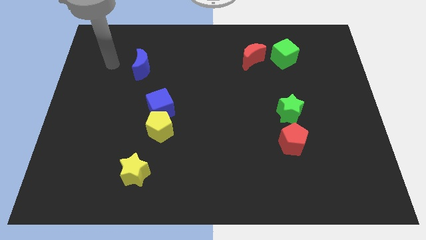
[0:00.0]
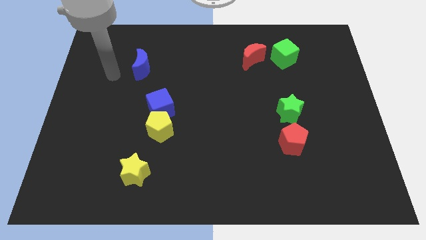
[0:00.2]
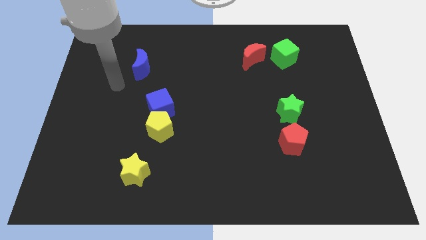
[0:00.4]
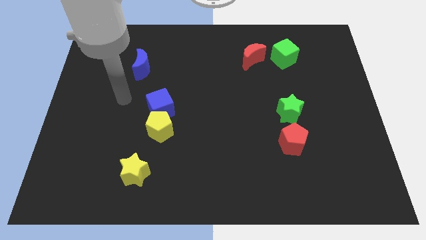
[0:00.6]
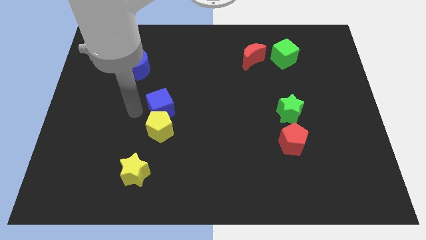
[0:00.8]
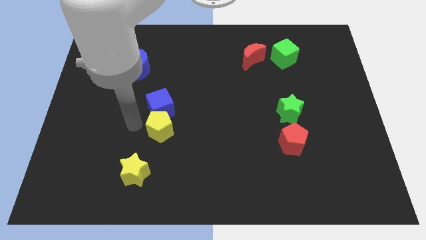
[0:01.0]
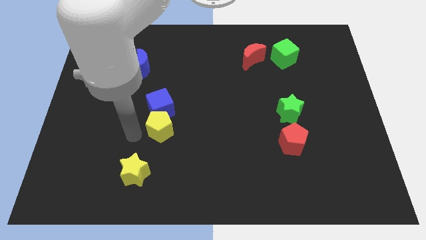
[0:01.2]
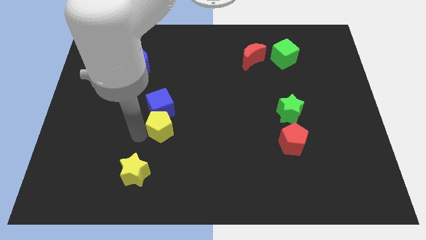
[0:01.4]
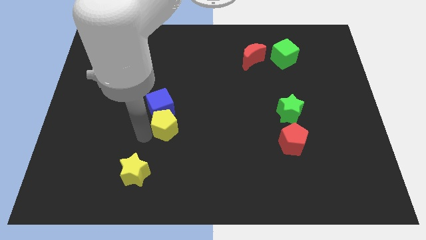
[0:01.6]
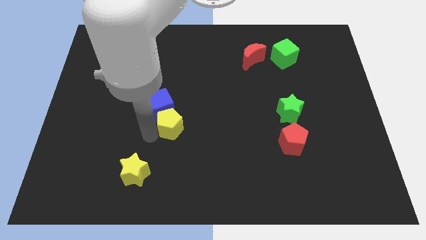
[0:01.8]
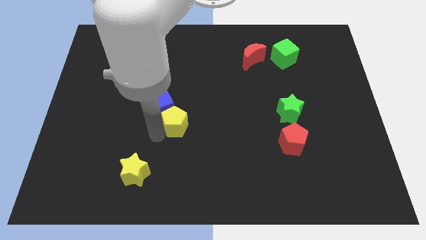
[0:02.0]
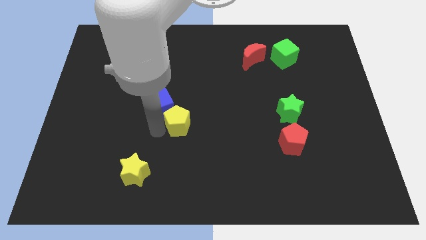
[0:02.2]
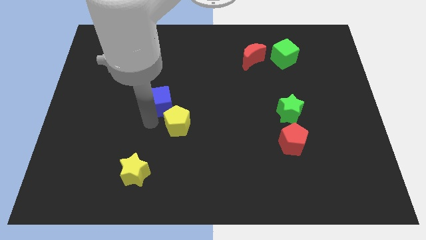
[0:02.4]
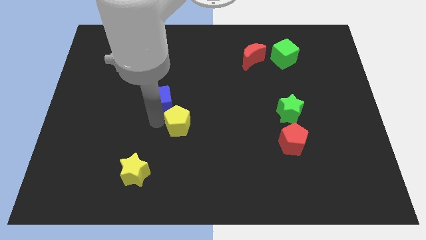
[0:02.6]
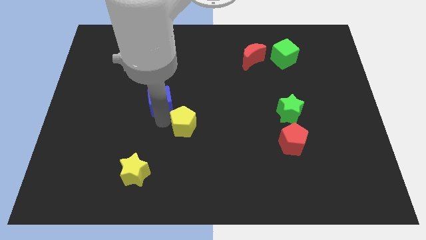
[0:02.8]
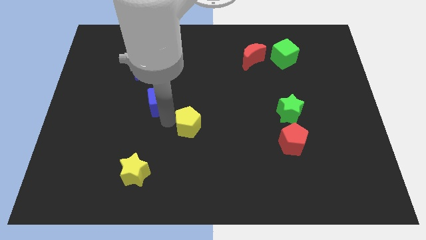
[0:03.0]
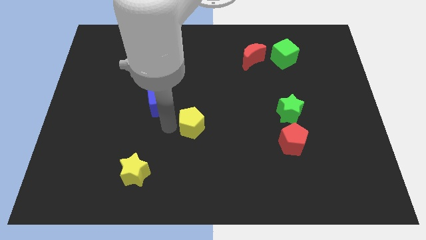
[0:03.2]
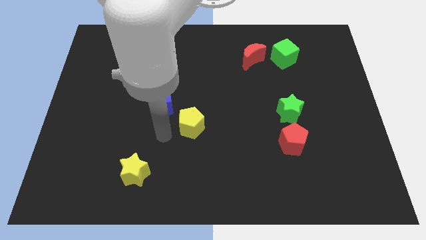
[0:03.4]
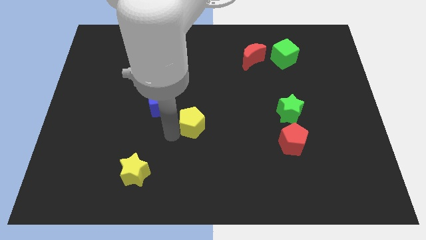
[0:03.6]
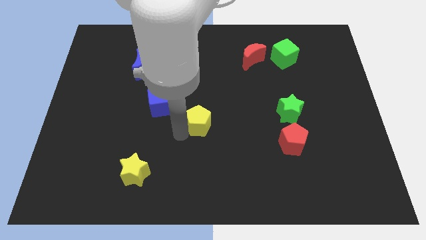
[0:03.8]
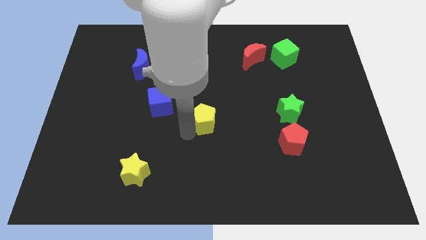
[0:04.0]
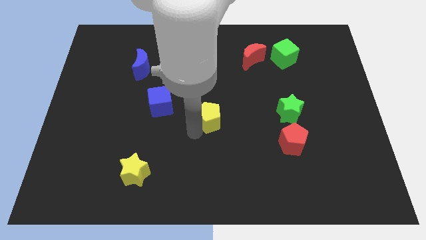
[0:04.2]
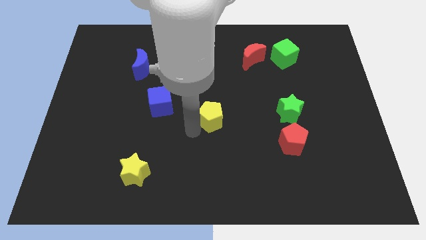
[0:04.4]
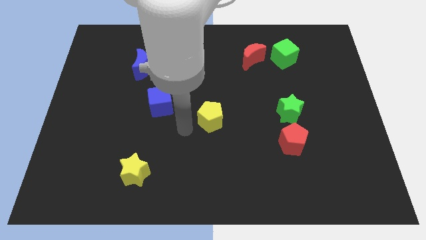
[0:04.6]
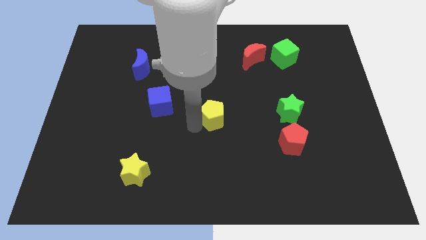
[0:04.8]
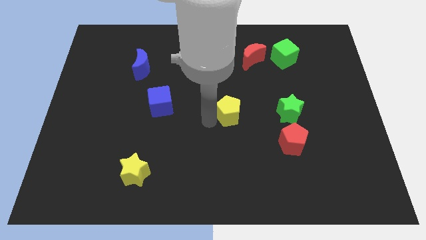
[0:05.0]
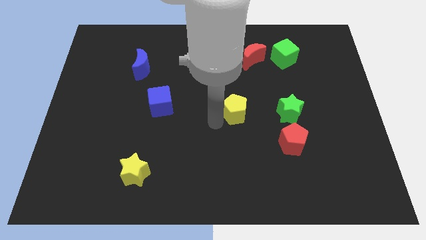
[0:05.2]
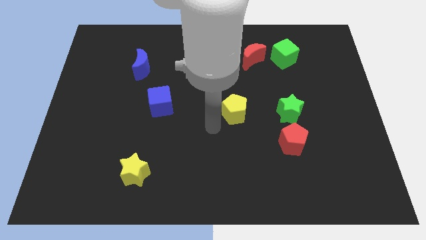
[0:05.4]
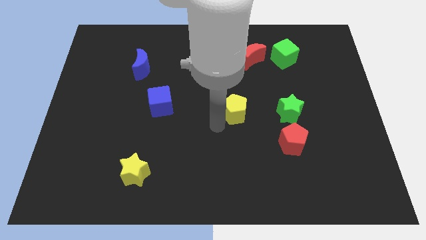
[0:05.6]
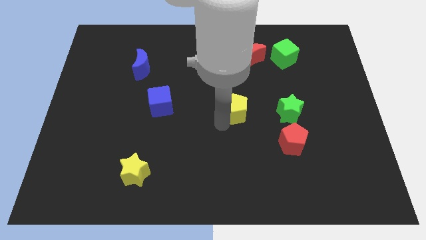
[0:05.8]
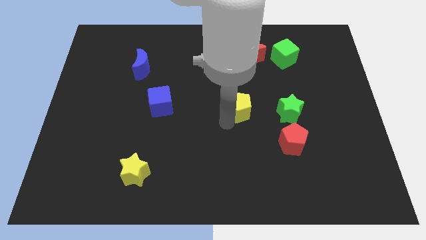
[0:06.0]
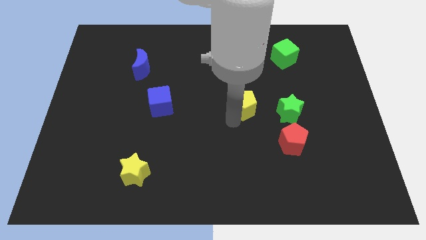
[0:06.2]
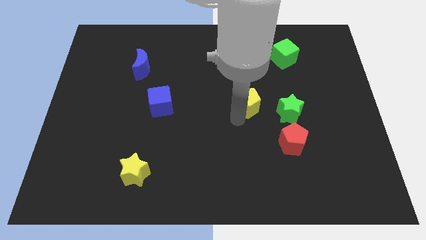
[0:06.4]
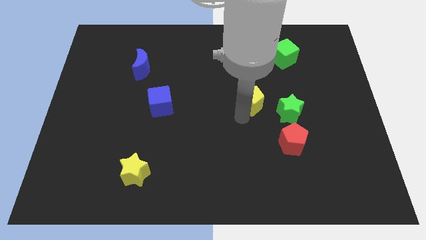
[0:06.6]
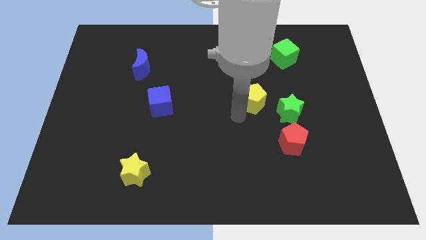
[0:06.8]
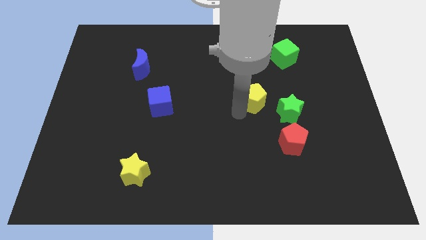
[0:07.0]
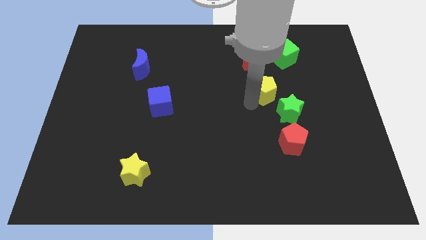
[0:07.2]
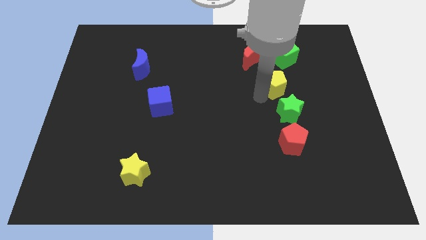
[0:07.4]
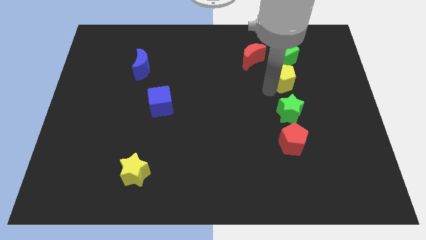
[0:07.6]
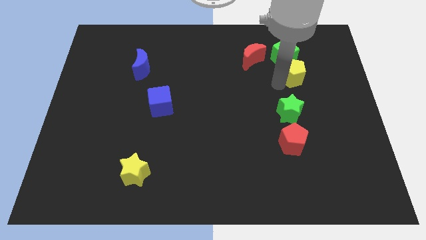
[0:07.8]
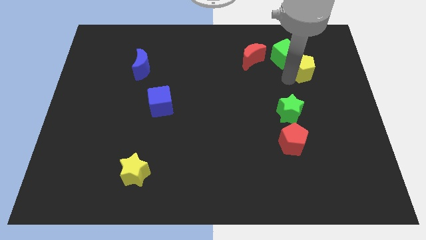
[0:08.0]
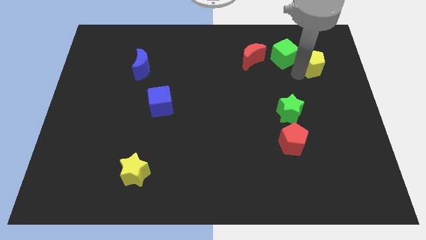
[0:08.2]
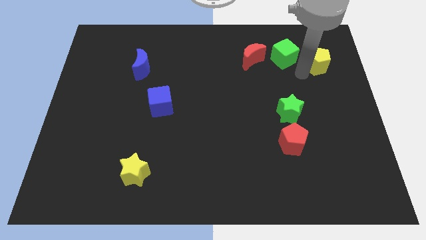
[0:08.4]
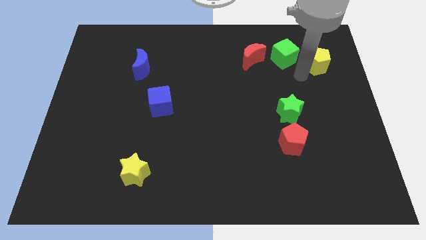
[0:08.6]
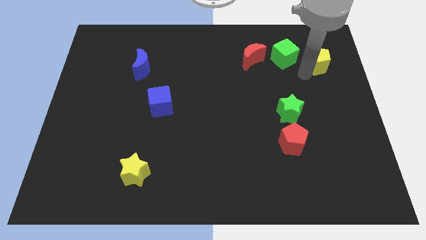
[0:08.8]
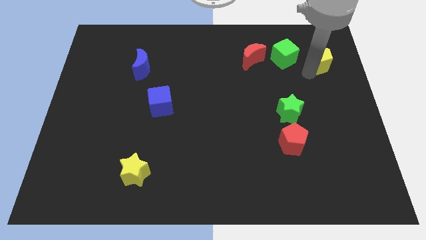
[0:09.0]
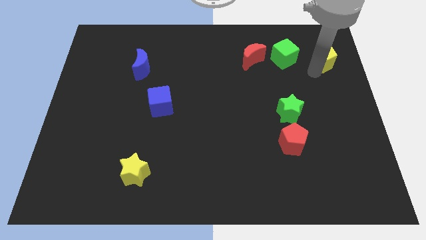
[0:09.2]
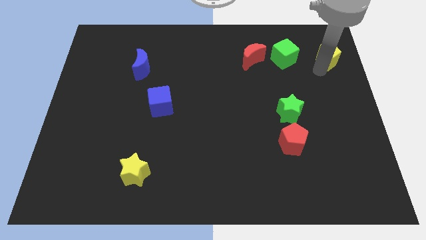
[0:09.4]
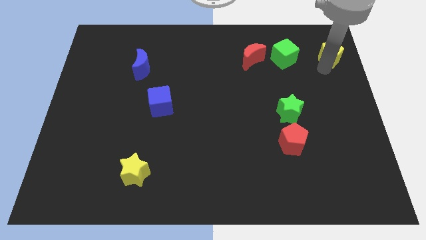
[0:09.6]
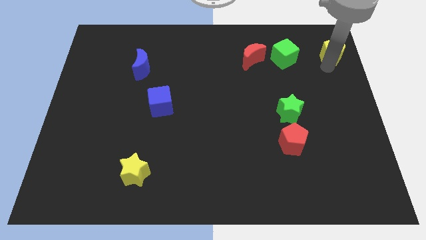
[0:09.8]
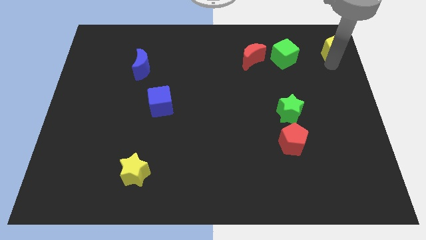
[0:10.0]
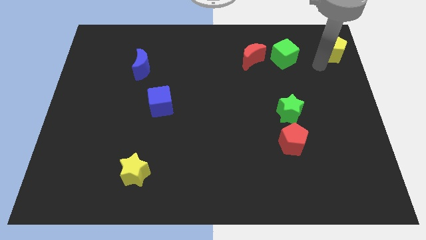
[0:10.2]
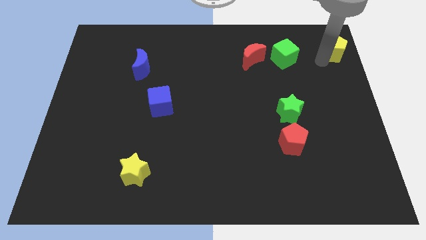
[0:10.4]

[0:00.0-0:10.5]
move the yellow pentagon to the top right corner

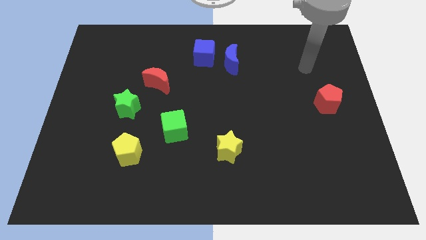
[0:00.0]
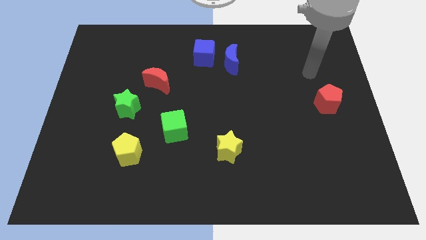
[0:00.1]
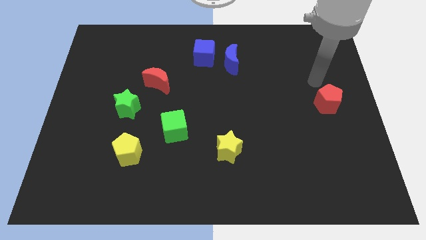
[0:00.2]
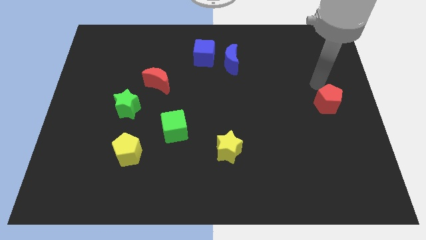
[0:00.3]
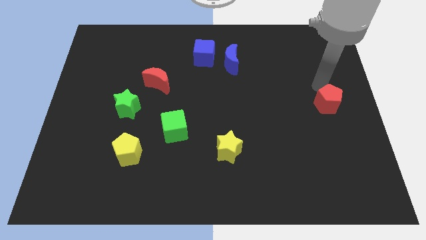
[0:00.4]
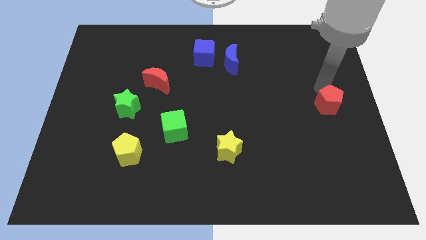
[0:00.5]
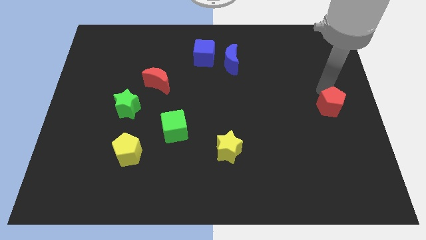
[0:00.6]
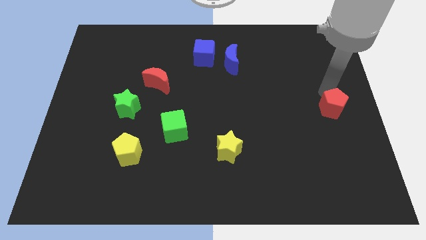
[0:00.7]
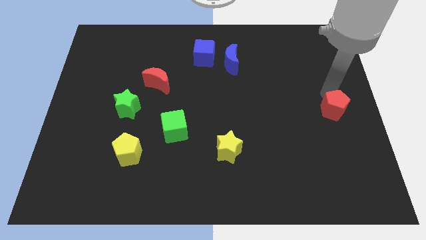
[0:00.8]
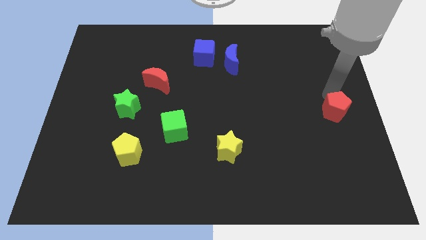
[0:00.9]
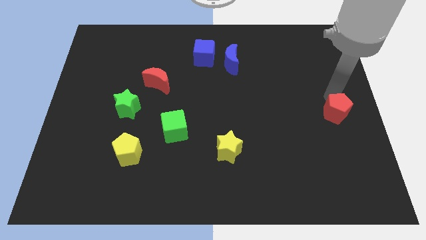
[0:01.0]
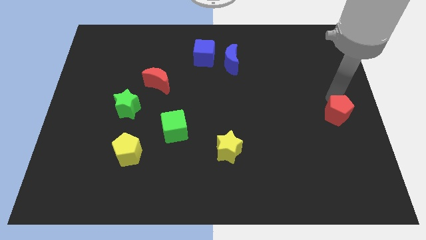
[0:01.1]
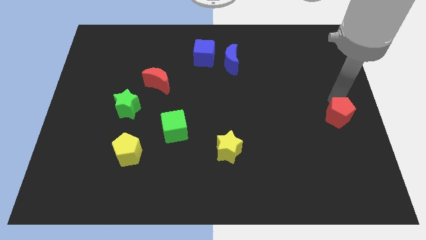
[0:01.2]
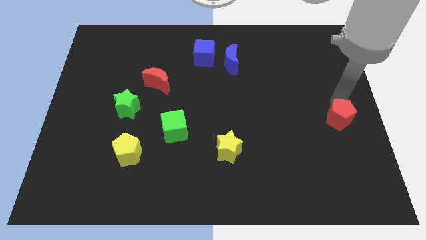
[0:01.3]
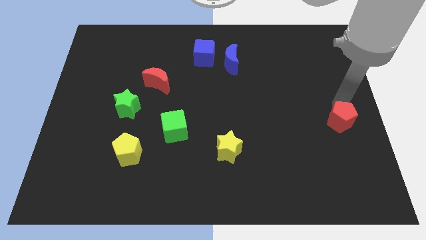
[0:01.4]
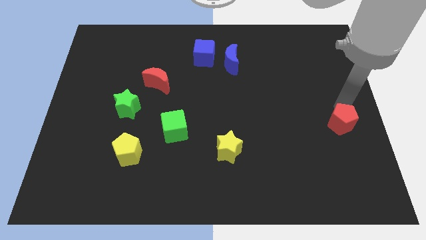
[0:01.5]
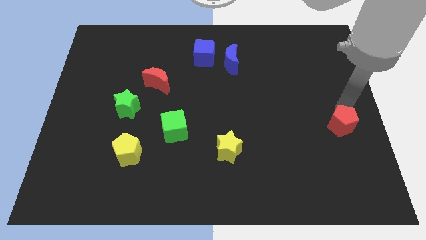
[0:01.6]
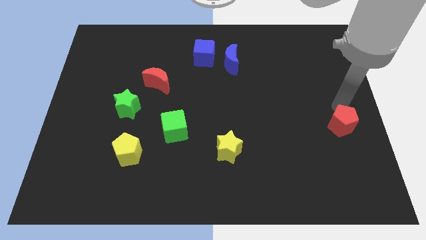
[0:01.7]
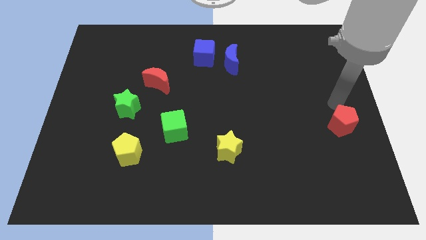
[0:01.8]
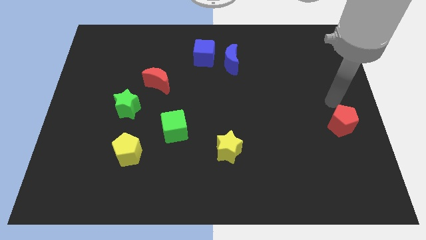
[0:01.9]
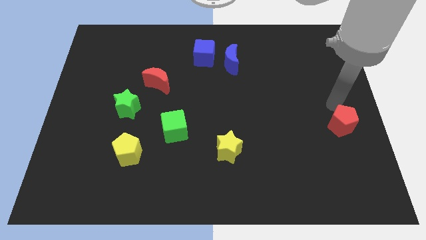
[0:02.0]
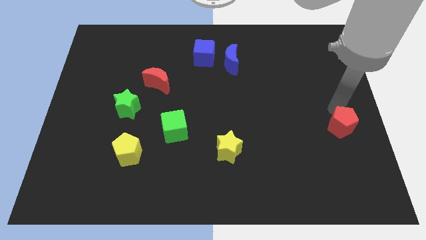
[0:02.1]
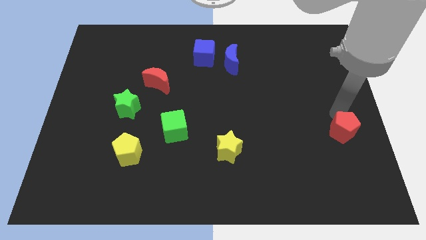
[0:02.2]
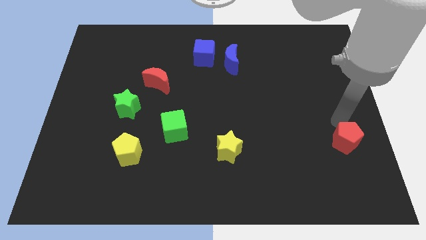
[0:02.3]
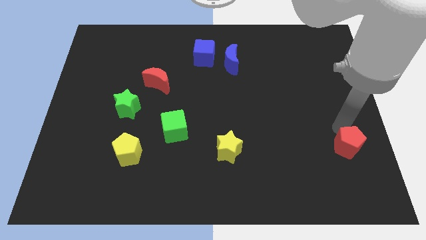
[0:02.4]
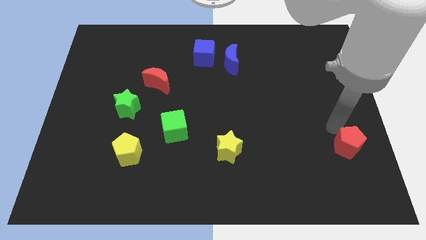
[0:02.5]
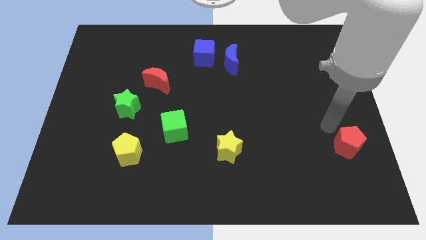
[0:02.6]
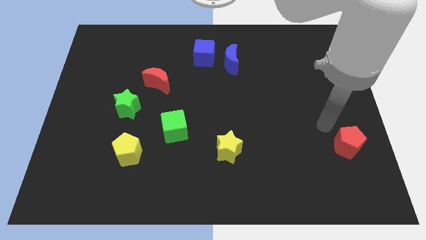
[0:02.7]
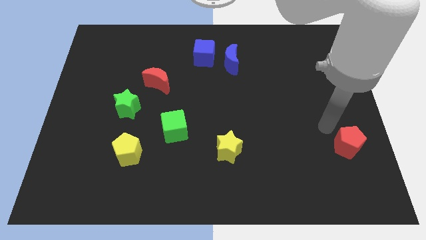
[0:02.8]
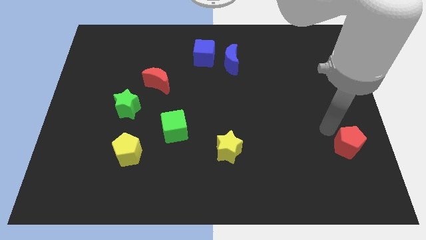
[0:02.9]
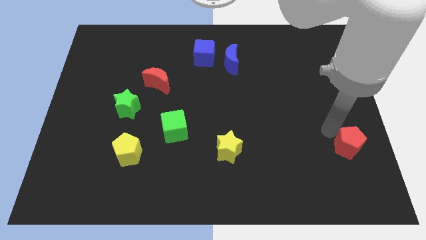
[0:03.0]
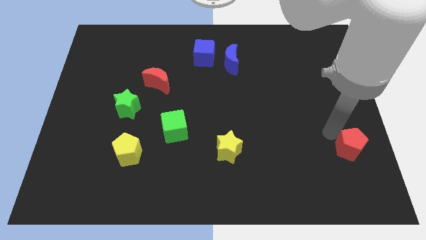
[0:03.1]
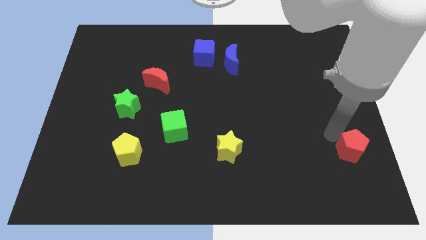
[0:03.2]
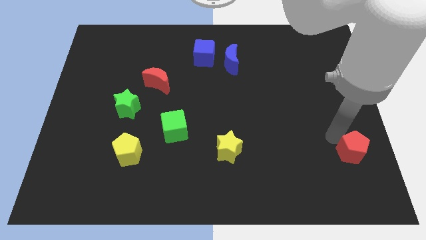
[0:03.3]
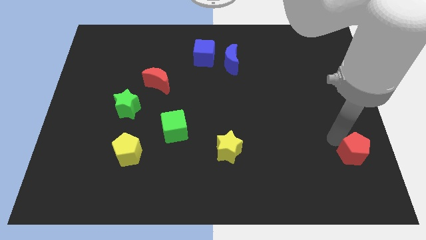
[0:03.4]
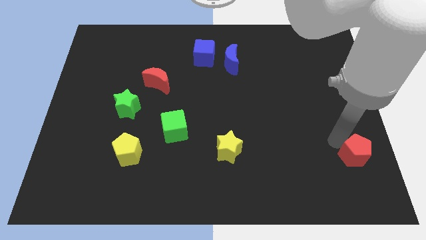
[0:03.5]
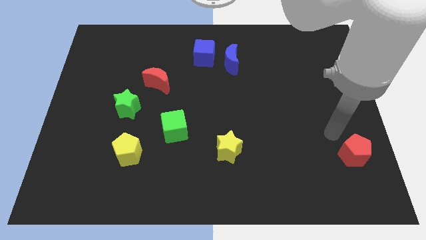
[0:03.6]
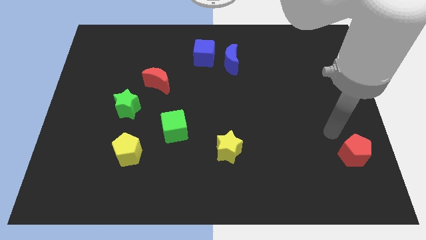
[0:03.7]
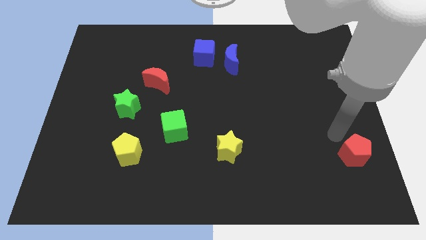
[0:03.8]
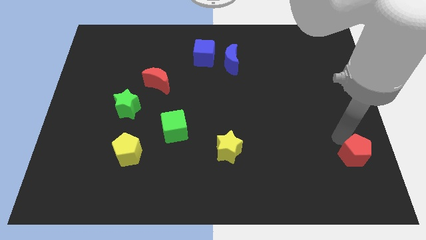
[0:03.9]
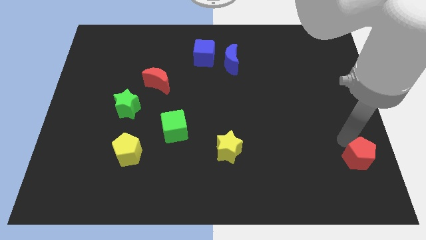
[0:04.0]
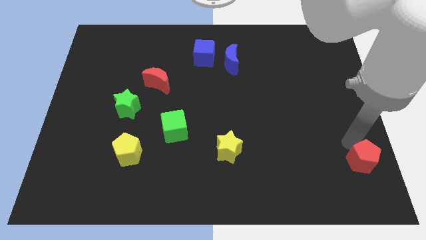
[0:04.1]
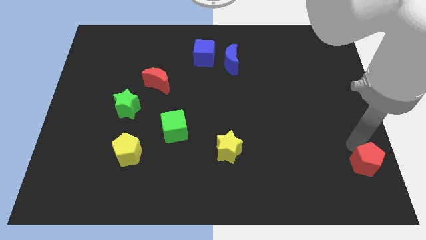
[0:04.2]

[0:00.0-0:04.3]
move the red pentagon to the bottom right corner
